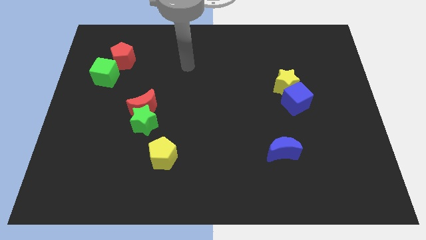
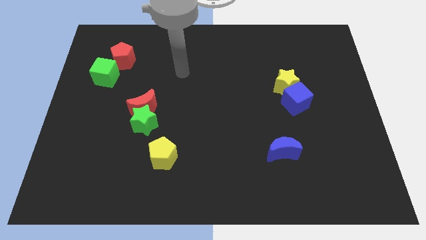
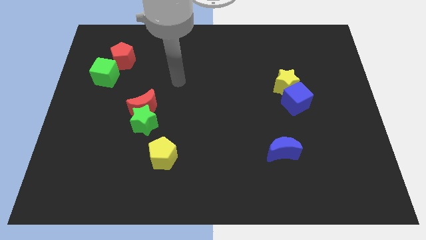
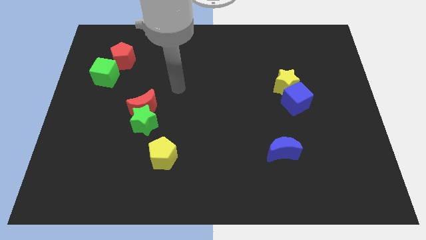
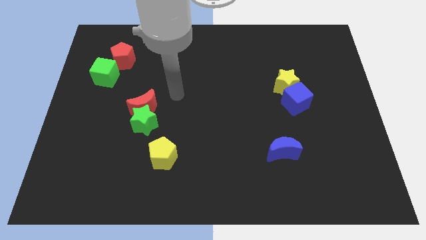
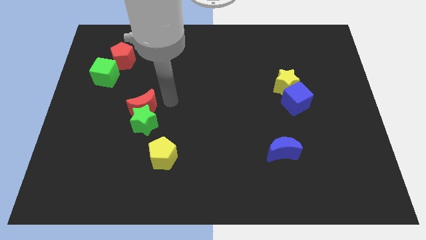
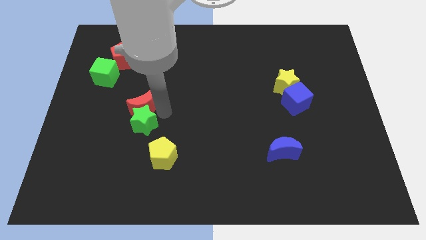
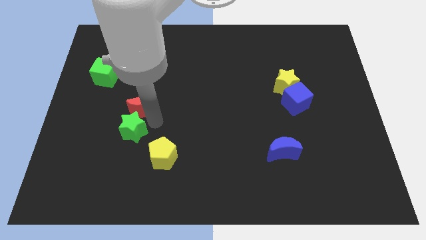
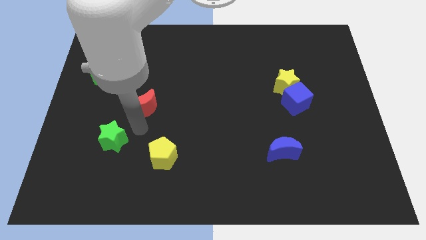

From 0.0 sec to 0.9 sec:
move the red moon away from the green star

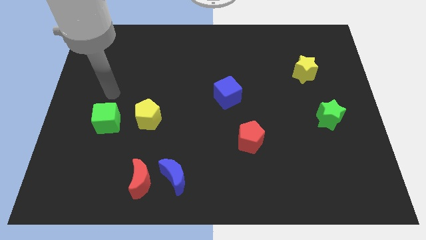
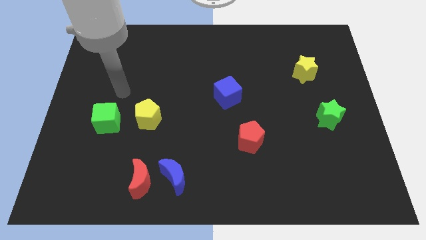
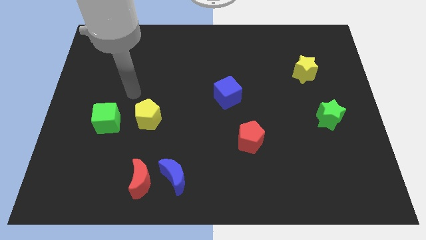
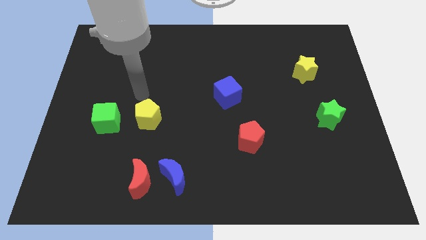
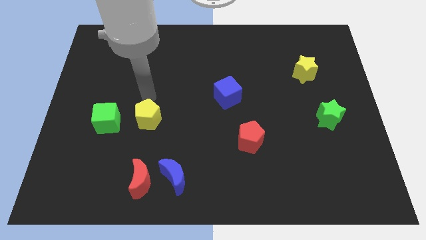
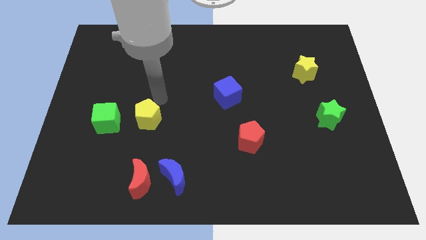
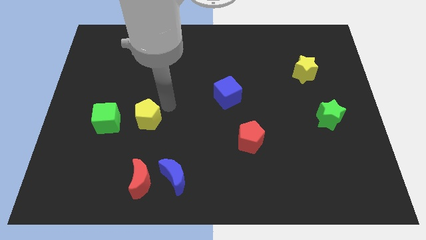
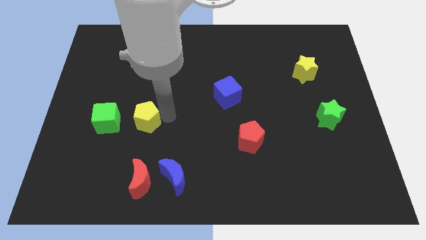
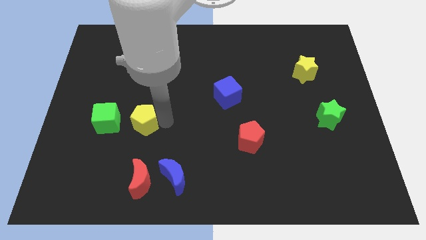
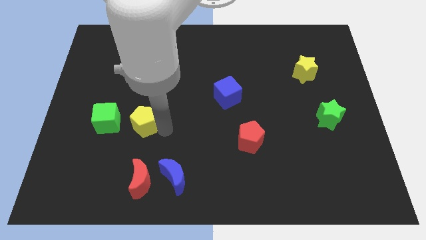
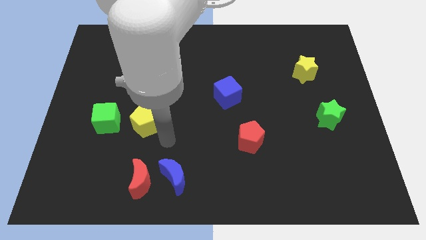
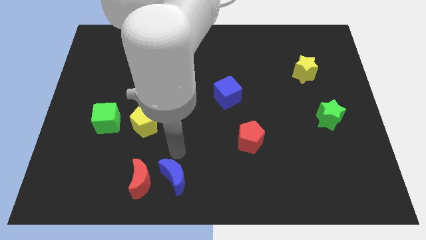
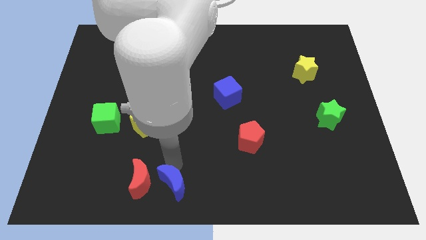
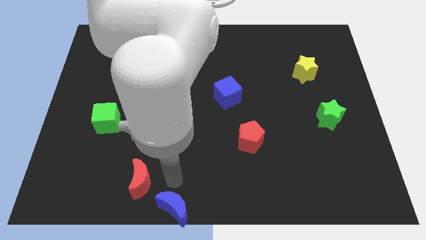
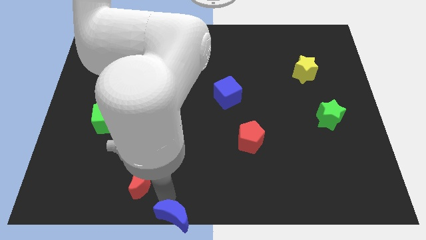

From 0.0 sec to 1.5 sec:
pull the red moon apart from the blue moon

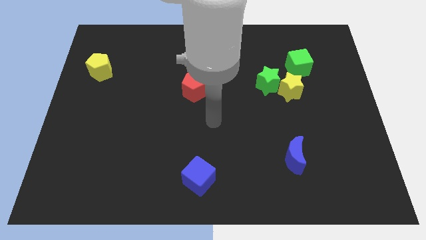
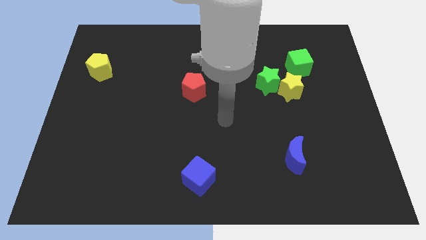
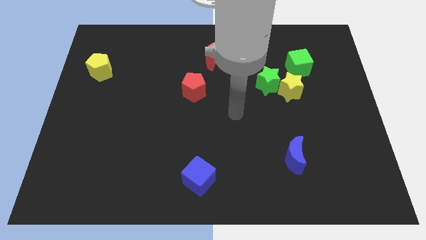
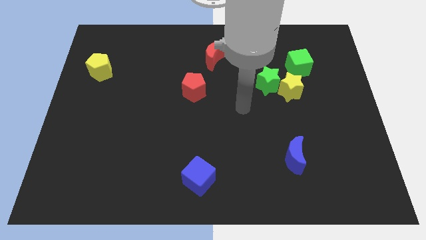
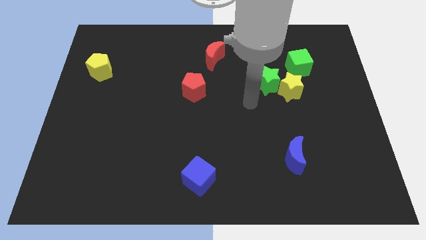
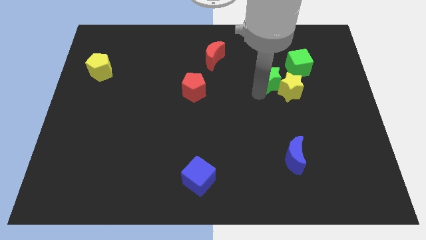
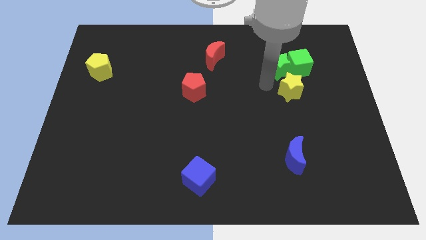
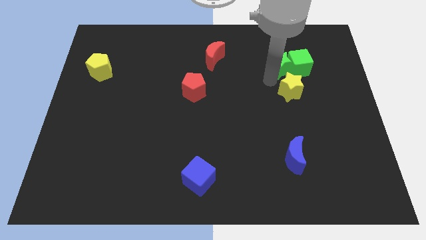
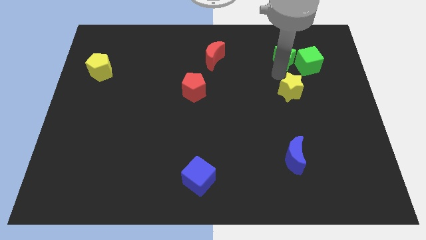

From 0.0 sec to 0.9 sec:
pull the yellow star apart from the green star and green cube

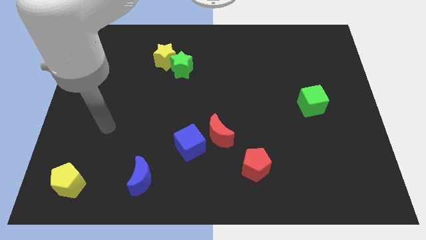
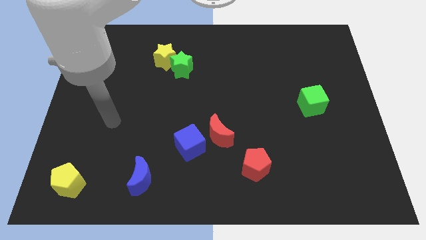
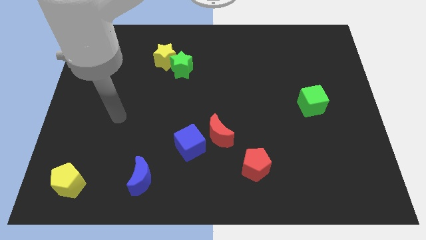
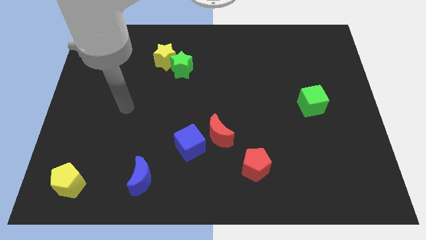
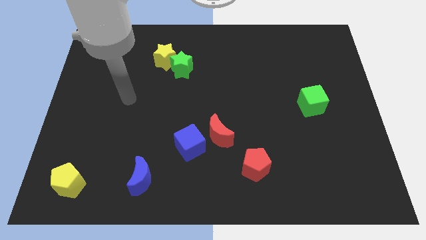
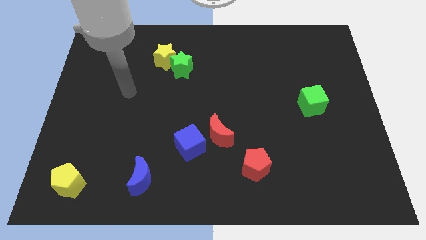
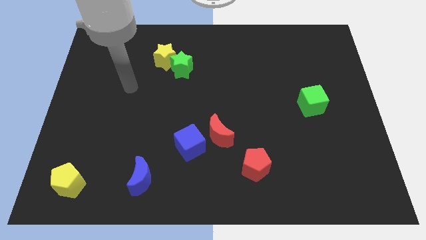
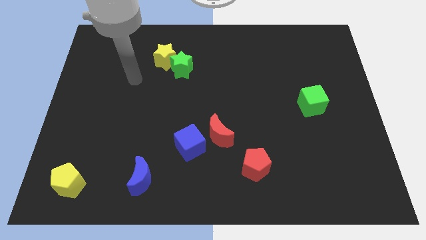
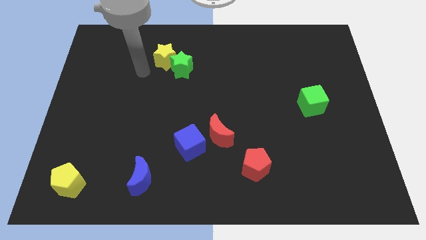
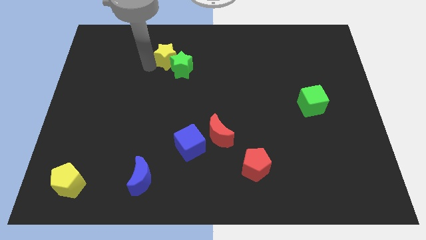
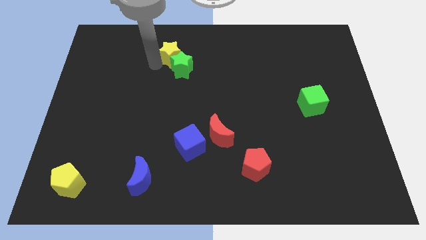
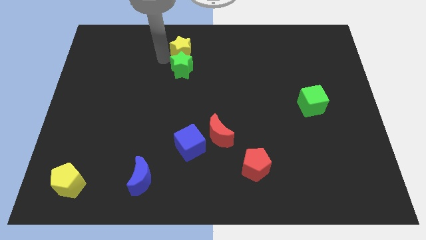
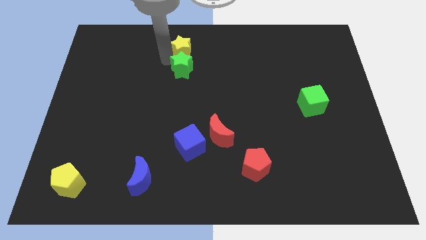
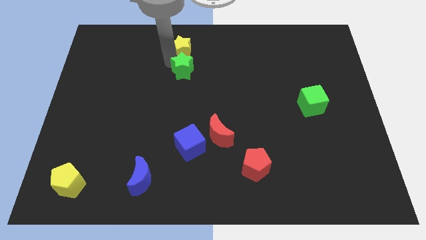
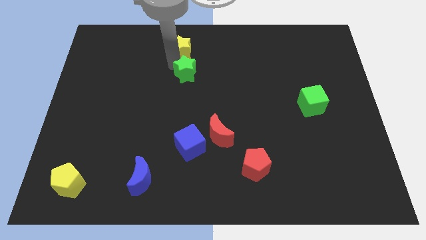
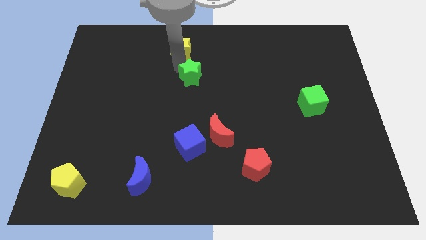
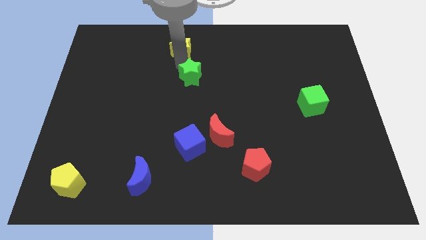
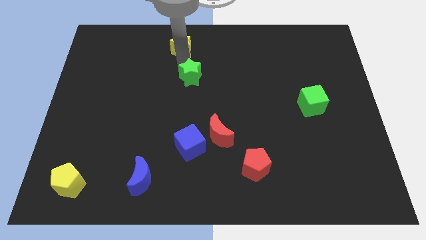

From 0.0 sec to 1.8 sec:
separate the green star from the yellow star

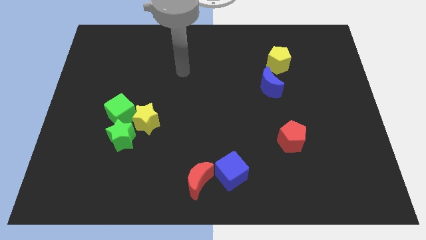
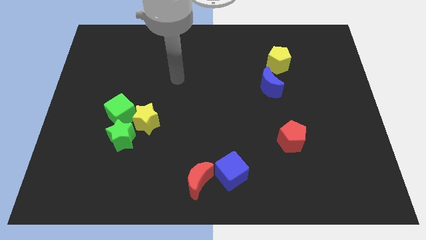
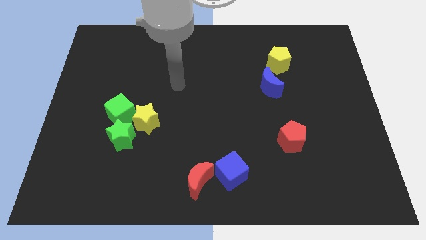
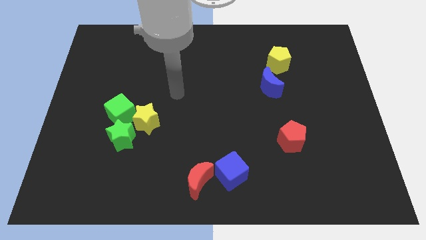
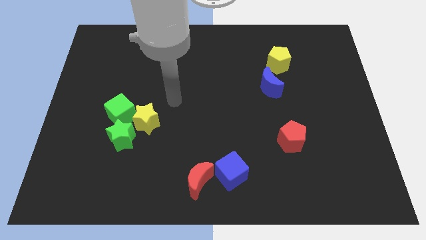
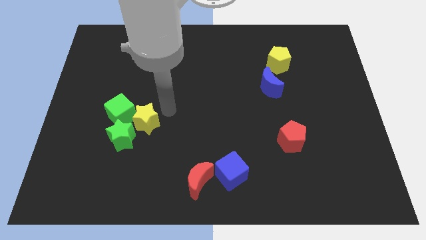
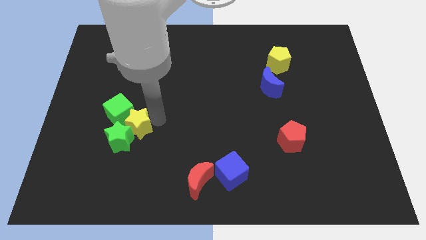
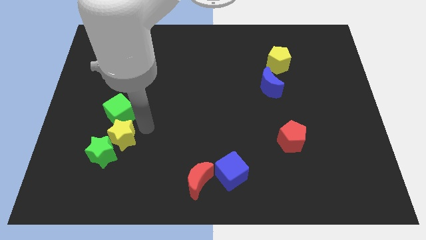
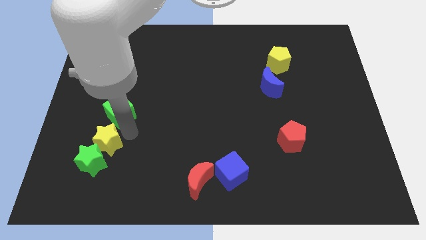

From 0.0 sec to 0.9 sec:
move the green cube away from the green star and yellow star

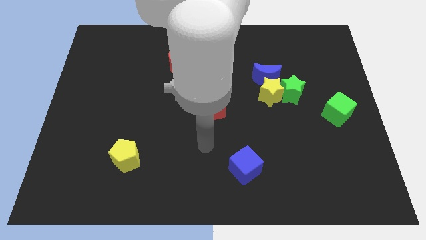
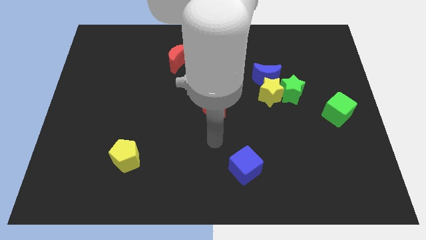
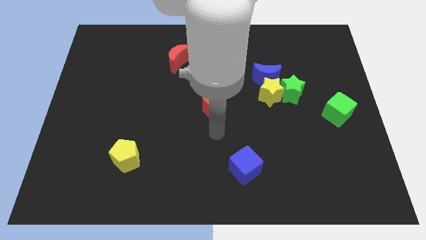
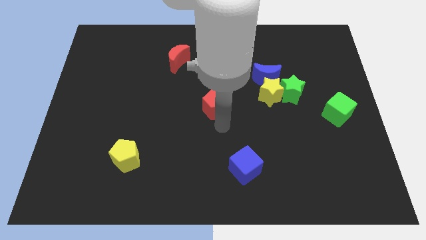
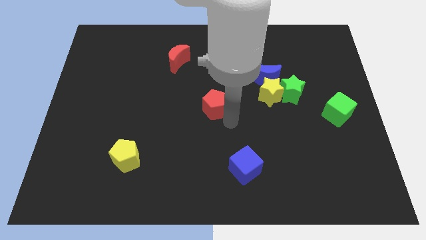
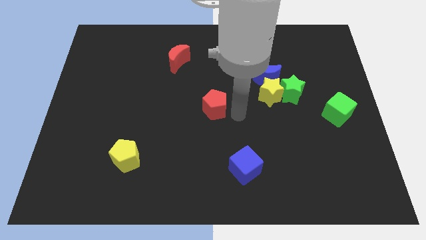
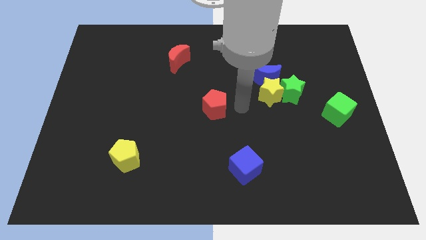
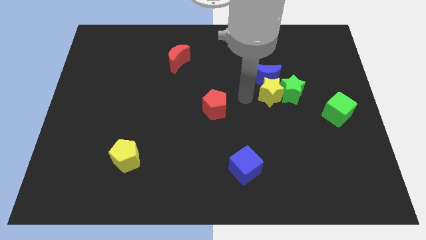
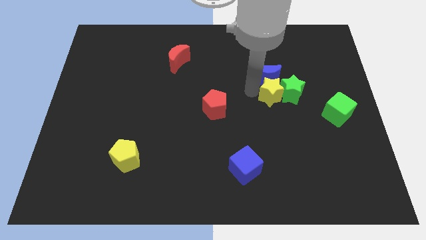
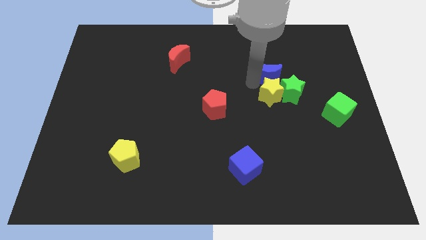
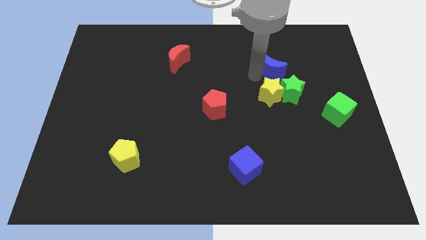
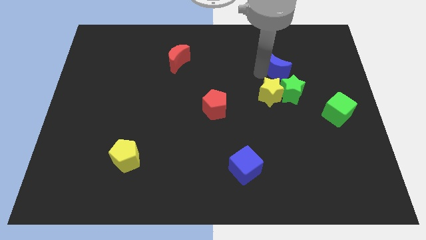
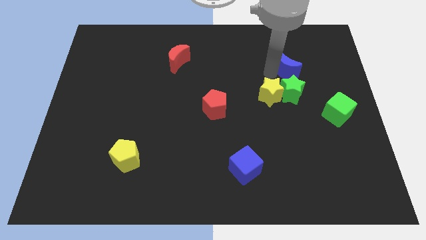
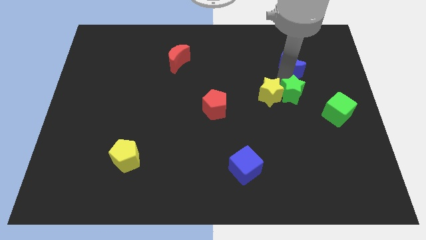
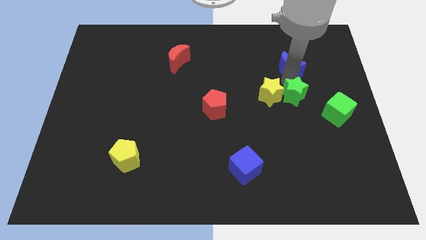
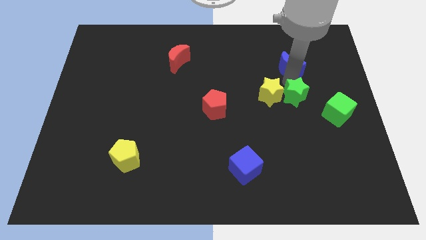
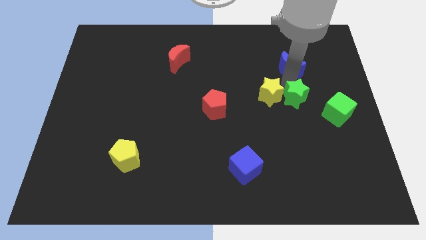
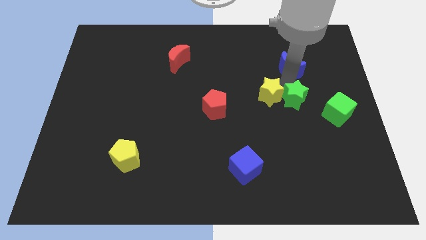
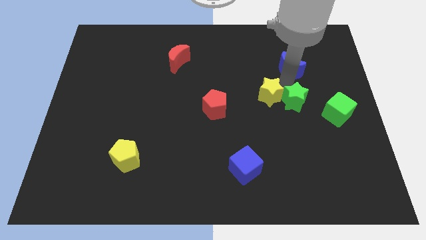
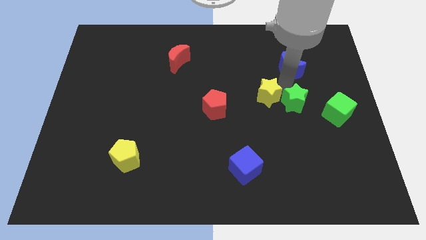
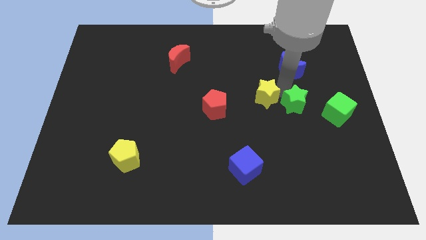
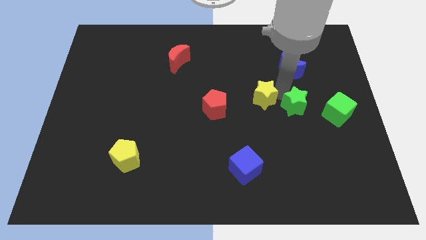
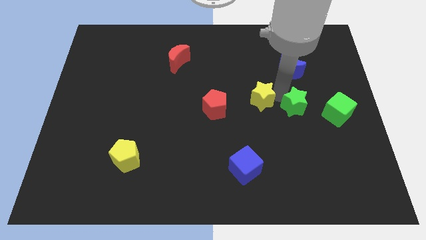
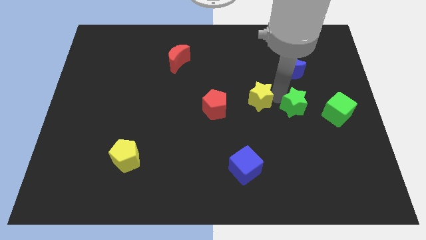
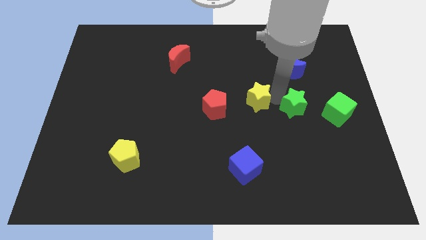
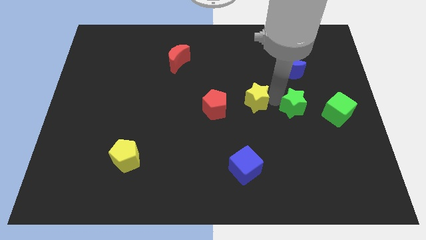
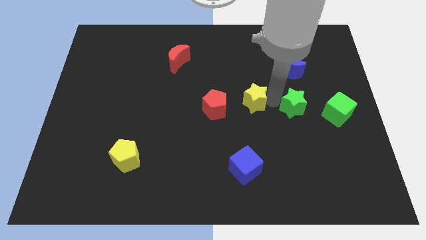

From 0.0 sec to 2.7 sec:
move the yellow star away from the green star and blue moon

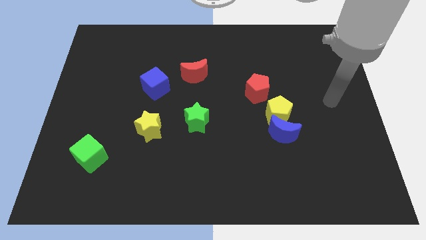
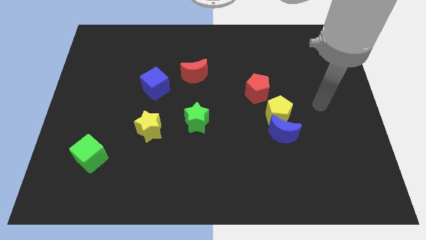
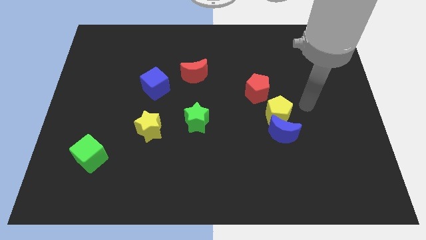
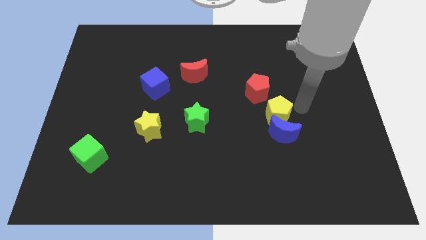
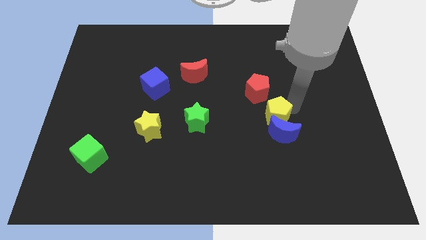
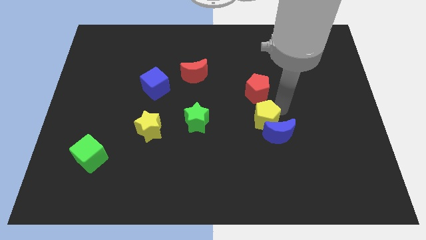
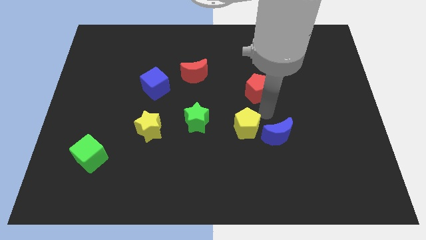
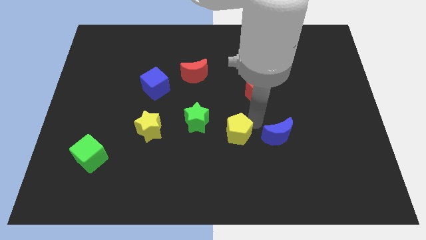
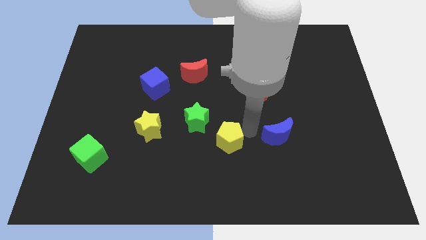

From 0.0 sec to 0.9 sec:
move the blue moon away from the yellow pentagon
